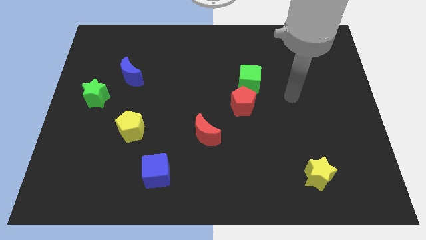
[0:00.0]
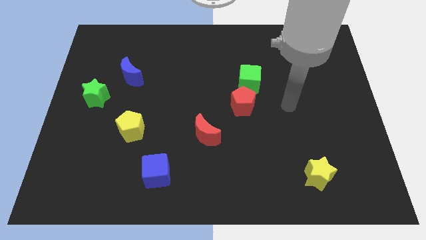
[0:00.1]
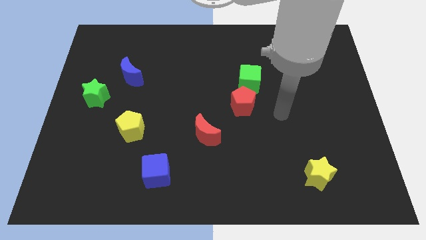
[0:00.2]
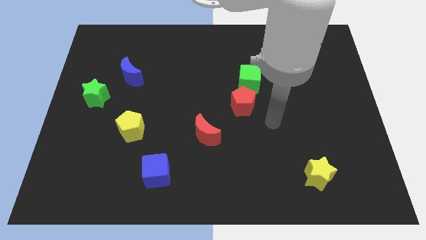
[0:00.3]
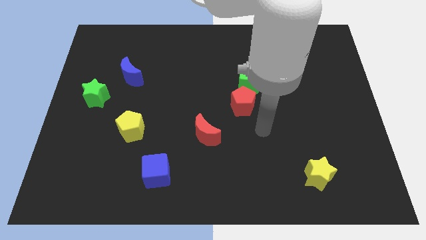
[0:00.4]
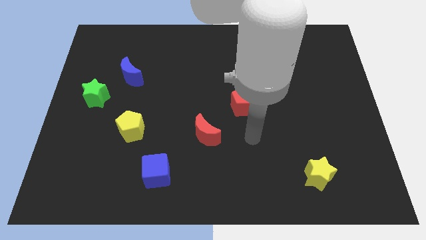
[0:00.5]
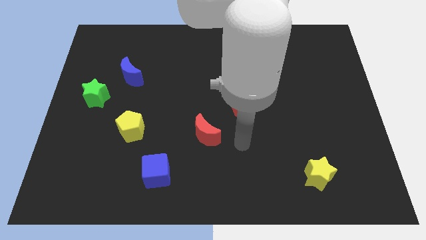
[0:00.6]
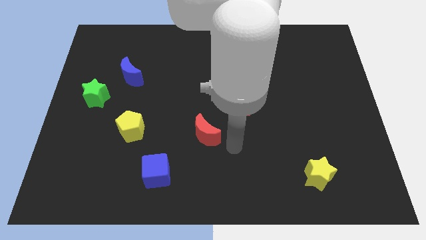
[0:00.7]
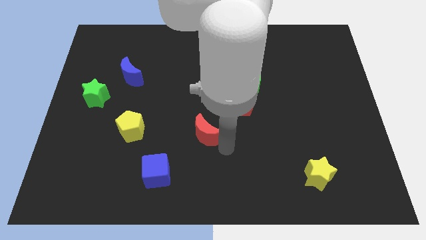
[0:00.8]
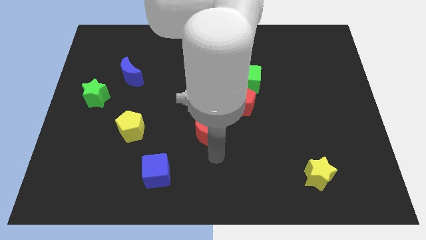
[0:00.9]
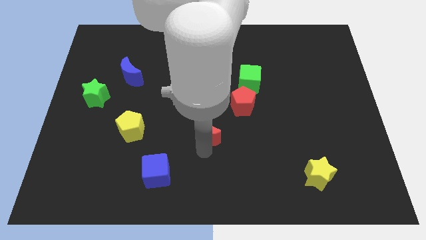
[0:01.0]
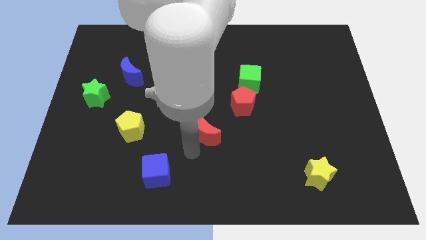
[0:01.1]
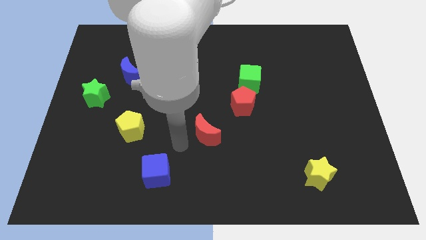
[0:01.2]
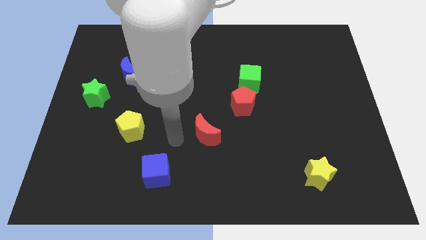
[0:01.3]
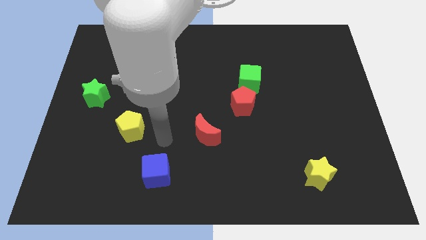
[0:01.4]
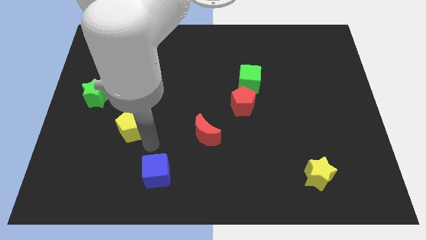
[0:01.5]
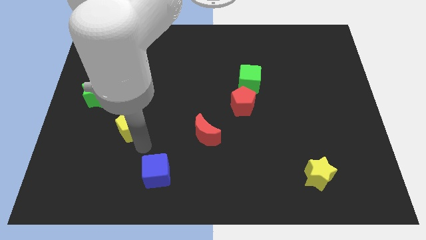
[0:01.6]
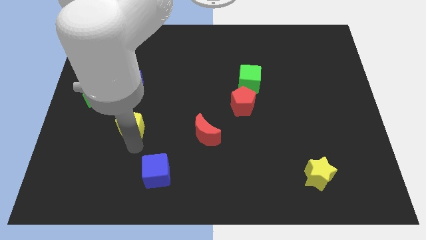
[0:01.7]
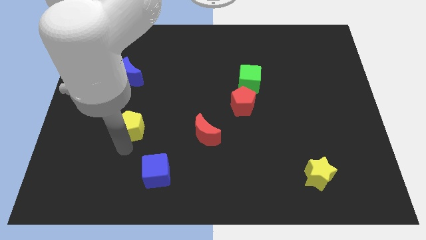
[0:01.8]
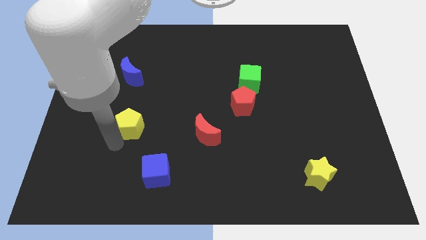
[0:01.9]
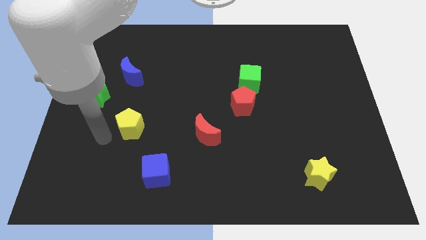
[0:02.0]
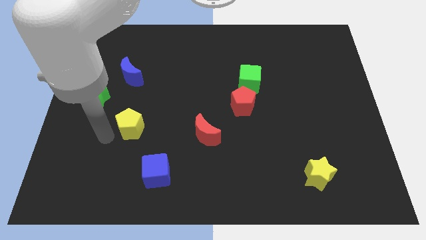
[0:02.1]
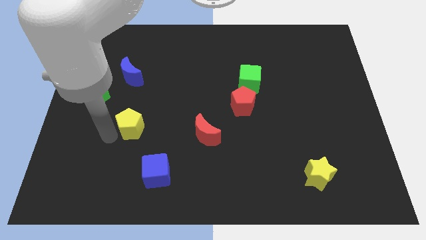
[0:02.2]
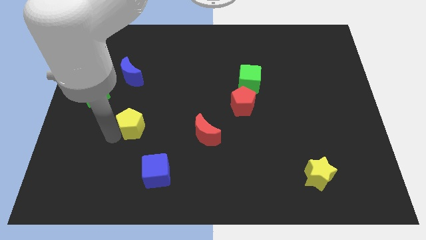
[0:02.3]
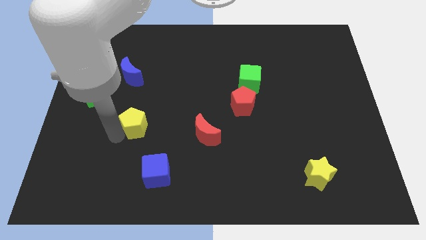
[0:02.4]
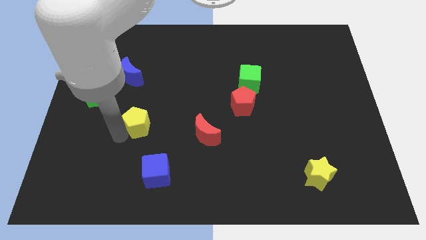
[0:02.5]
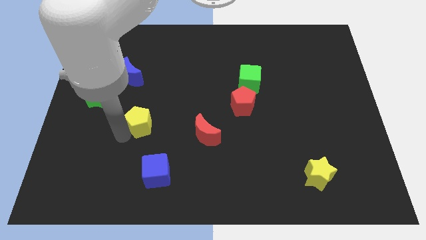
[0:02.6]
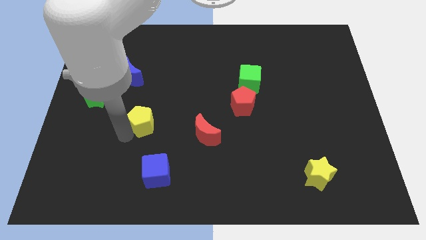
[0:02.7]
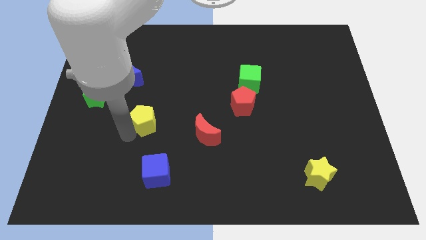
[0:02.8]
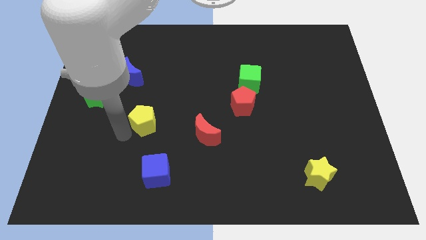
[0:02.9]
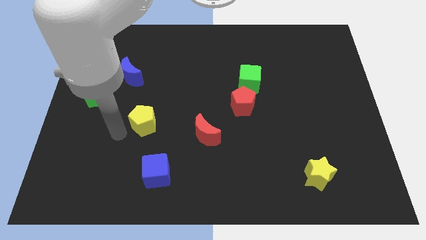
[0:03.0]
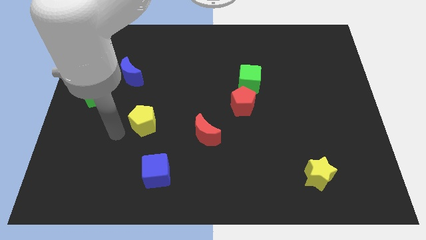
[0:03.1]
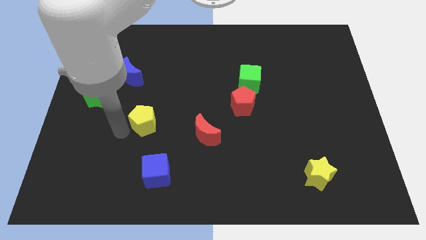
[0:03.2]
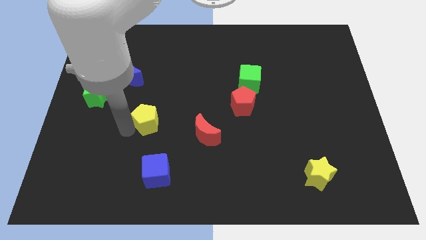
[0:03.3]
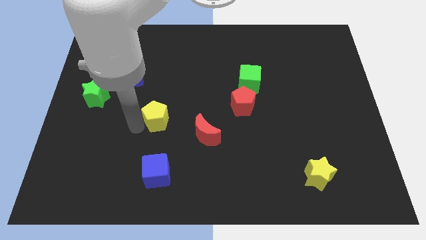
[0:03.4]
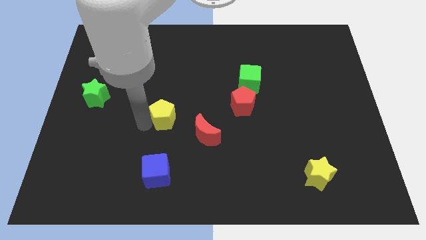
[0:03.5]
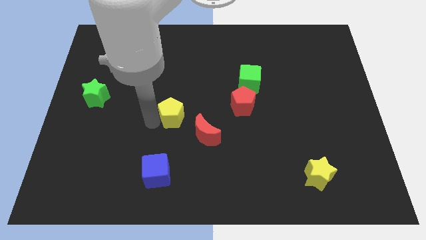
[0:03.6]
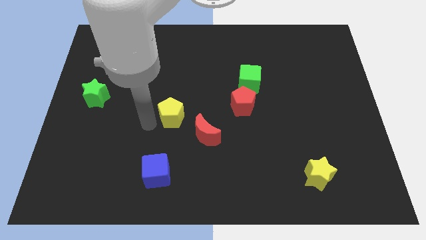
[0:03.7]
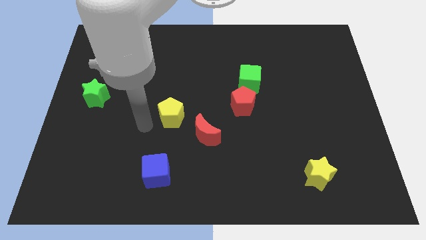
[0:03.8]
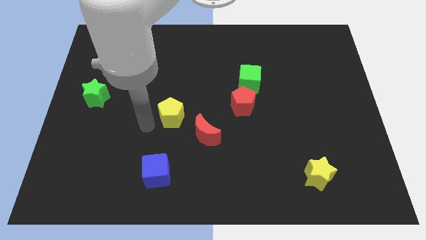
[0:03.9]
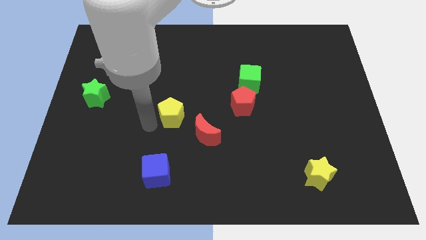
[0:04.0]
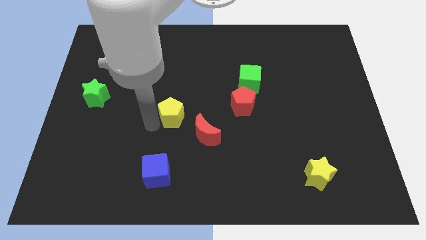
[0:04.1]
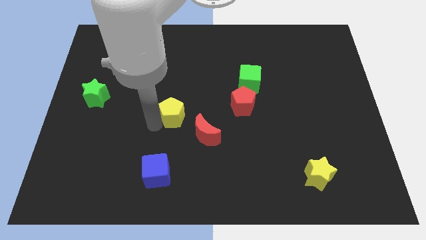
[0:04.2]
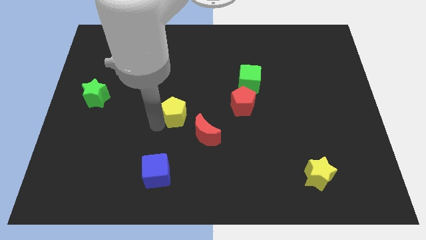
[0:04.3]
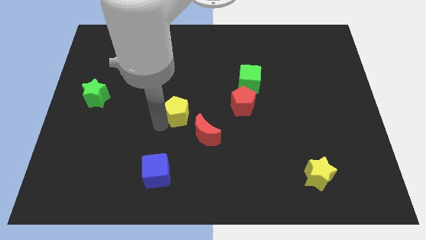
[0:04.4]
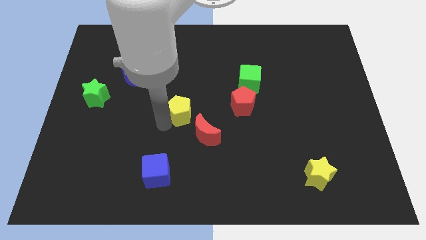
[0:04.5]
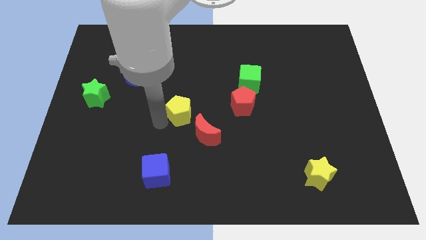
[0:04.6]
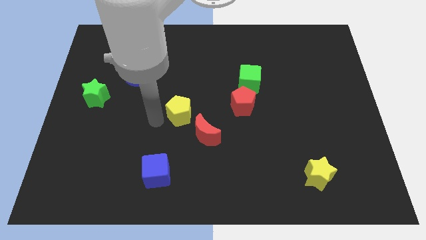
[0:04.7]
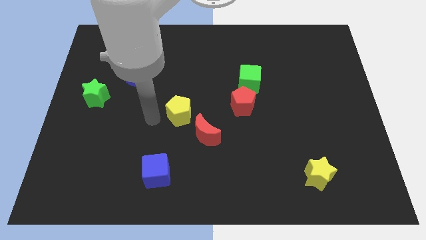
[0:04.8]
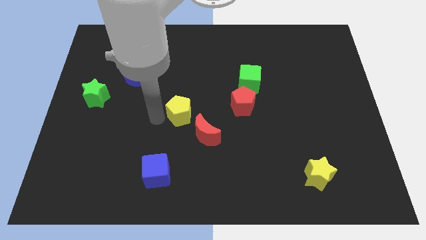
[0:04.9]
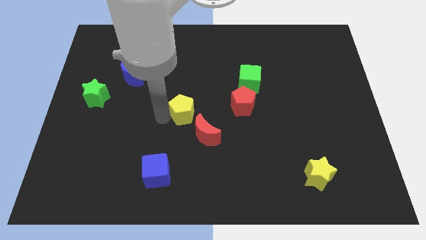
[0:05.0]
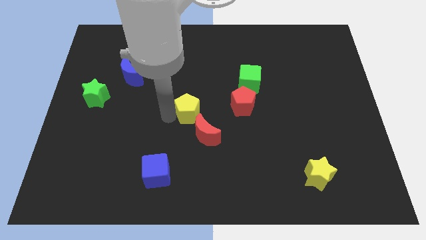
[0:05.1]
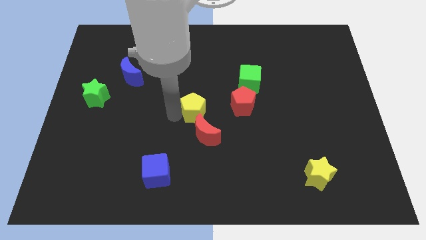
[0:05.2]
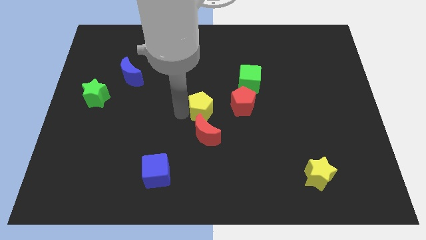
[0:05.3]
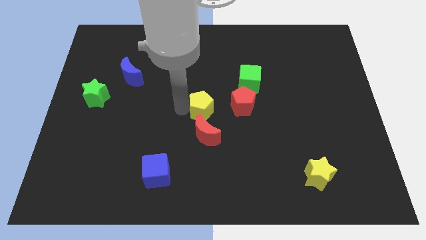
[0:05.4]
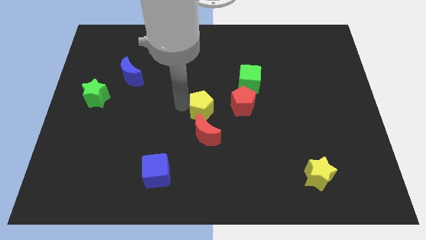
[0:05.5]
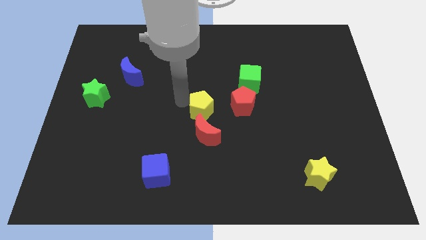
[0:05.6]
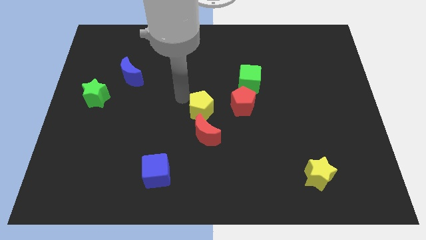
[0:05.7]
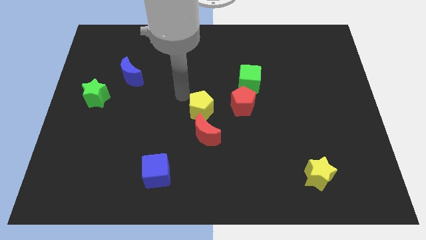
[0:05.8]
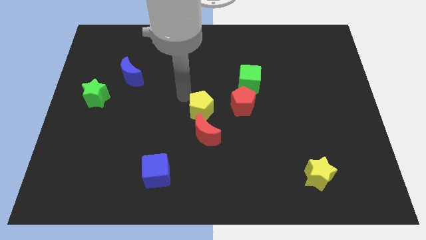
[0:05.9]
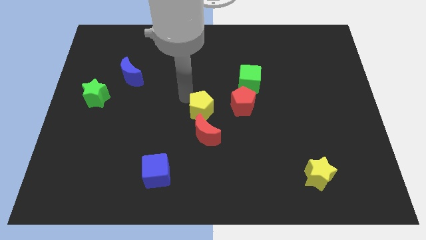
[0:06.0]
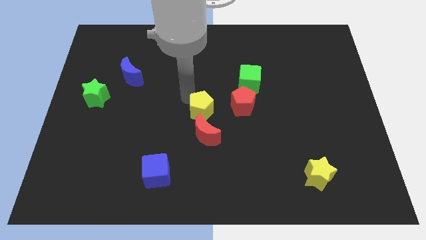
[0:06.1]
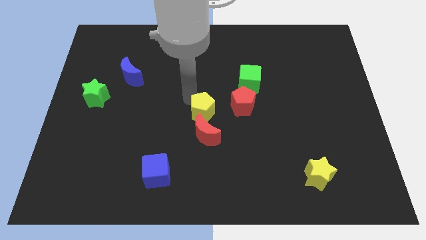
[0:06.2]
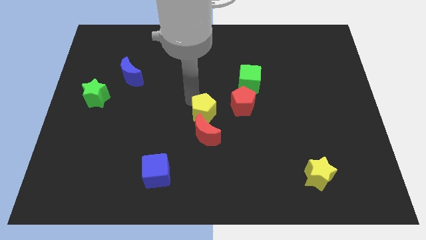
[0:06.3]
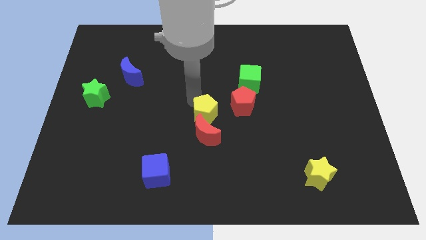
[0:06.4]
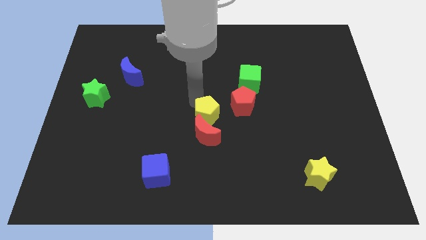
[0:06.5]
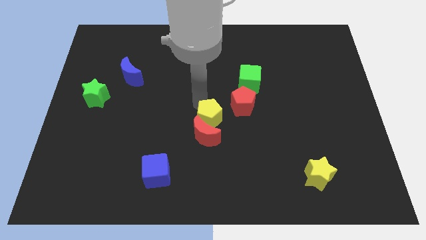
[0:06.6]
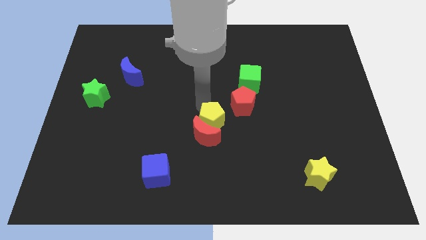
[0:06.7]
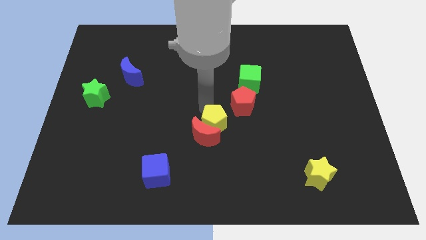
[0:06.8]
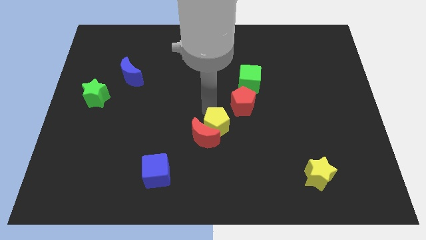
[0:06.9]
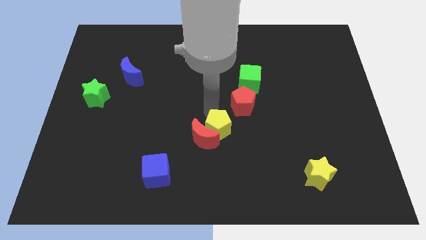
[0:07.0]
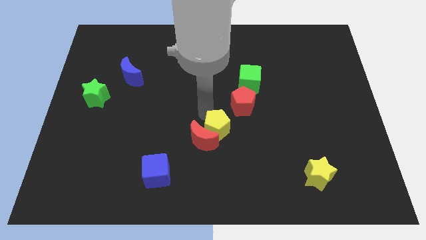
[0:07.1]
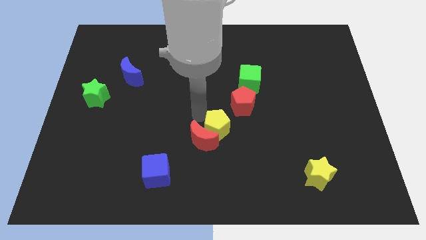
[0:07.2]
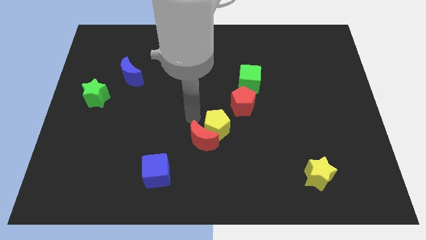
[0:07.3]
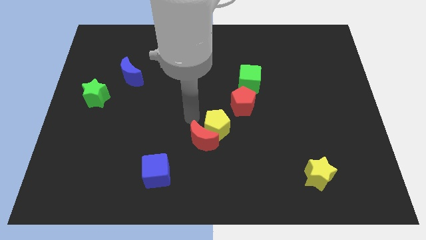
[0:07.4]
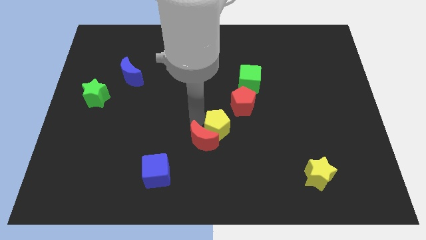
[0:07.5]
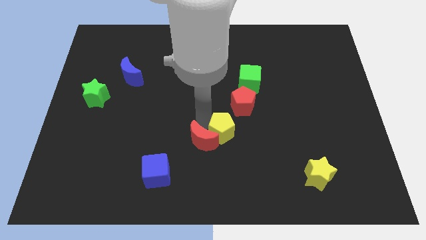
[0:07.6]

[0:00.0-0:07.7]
put the yellow pentagon below the red pentagon
